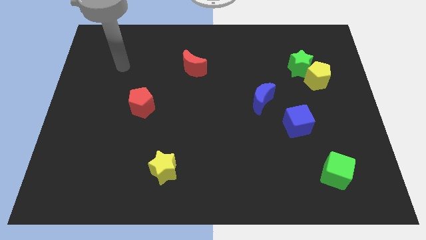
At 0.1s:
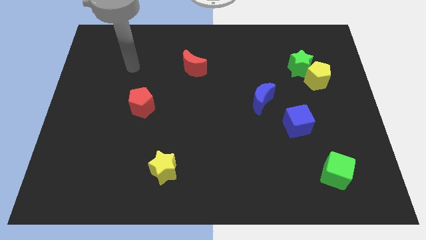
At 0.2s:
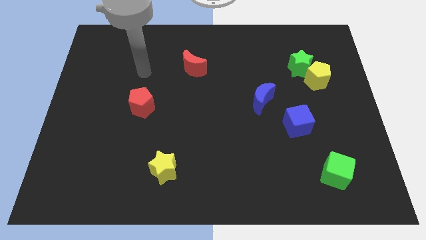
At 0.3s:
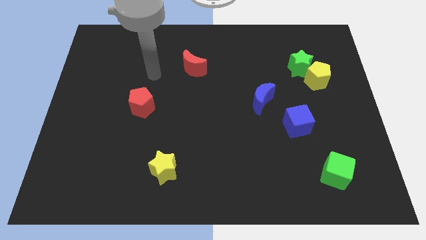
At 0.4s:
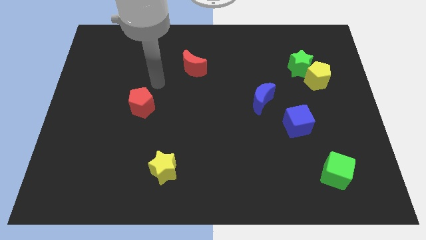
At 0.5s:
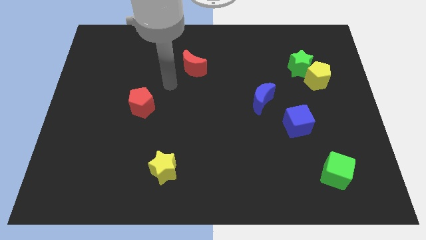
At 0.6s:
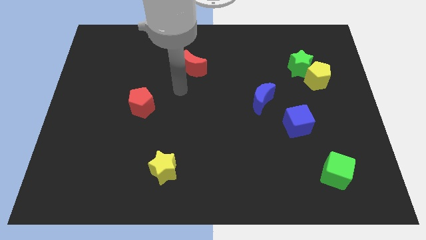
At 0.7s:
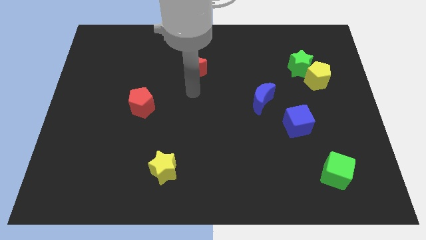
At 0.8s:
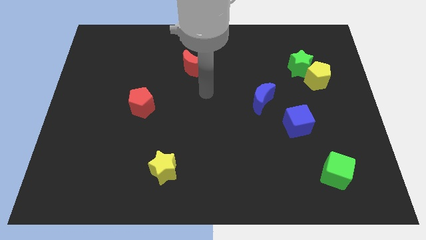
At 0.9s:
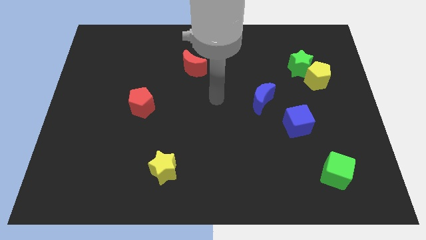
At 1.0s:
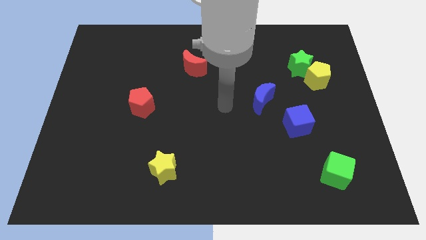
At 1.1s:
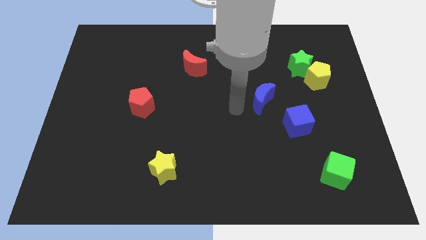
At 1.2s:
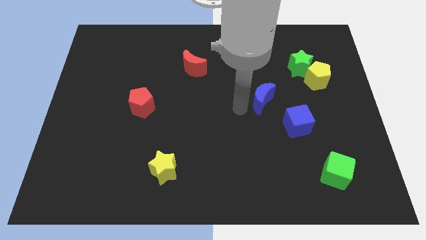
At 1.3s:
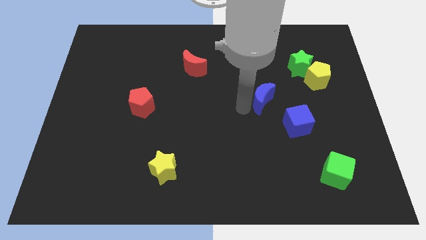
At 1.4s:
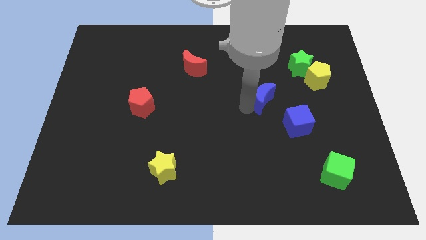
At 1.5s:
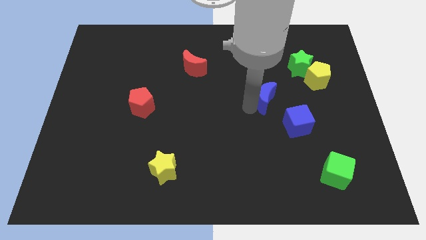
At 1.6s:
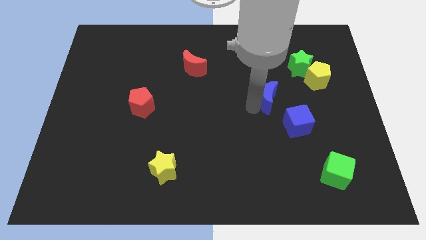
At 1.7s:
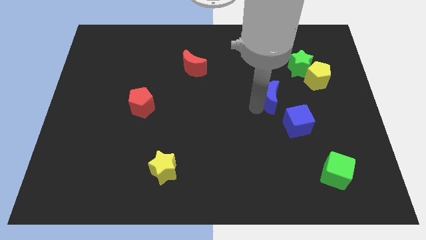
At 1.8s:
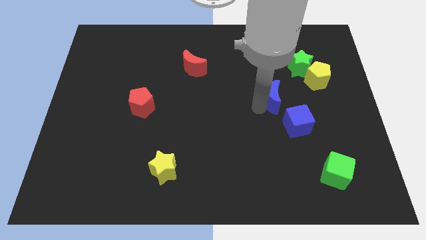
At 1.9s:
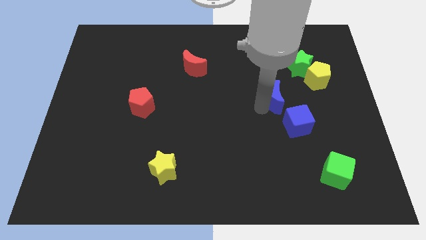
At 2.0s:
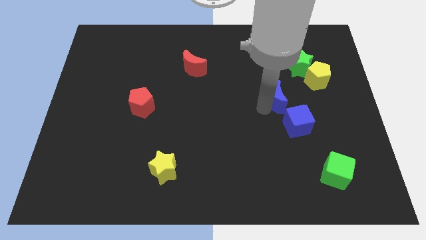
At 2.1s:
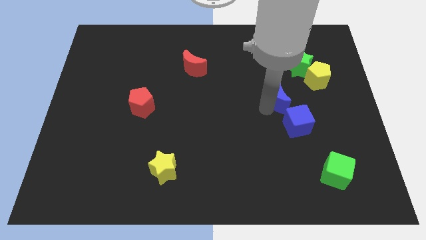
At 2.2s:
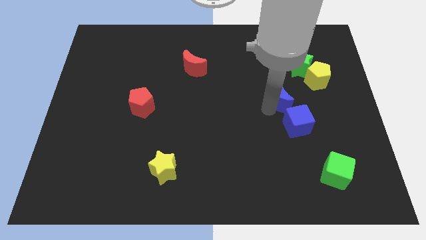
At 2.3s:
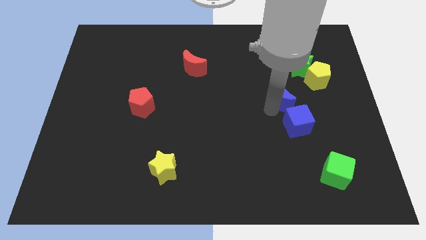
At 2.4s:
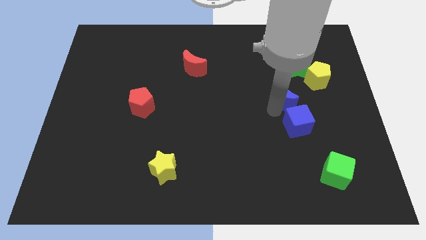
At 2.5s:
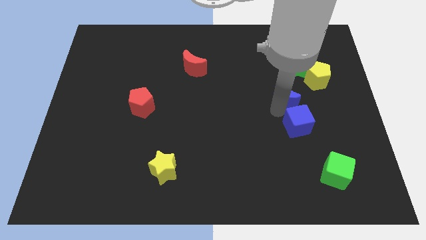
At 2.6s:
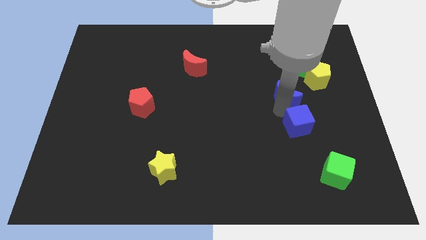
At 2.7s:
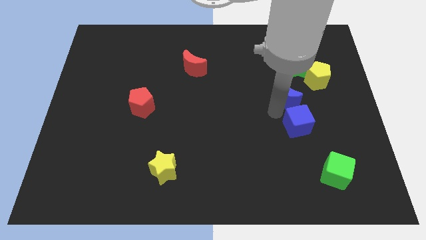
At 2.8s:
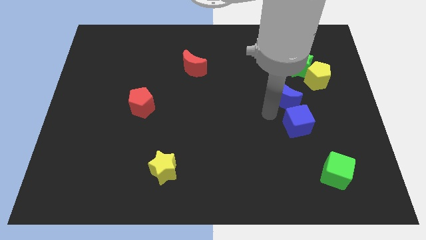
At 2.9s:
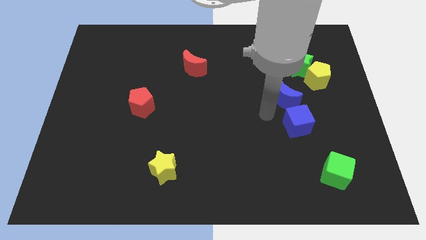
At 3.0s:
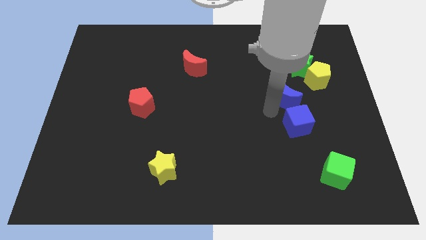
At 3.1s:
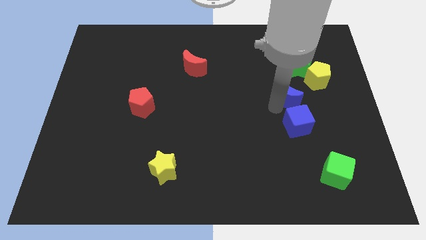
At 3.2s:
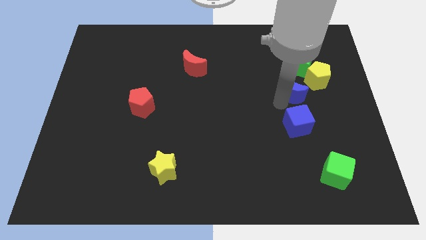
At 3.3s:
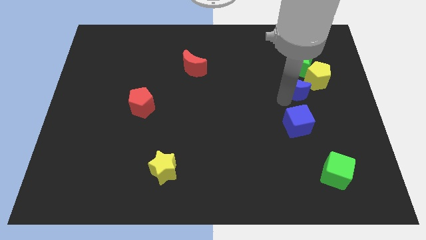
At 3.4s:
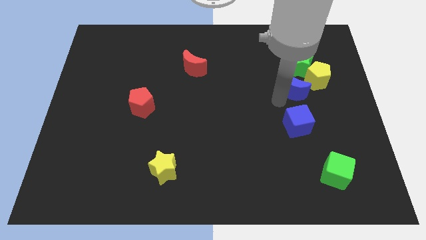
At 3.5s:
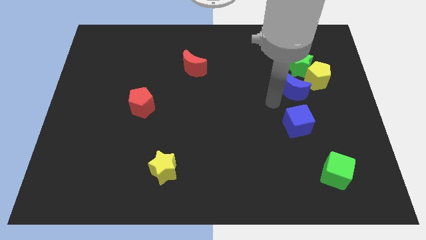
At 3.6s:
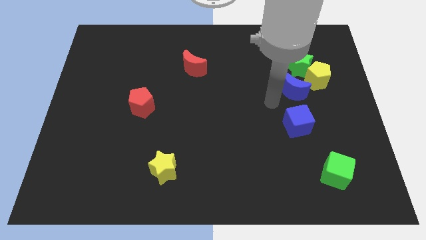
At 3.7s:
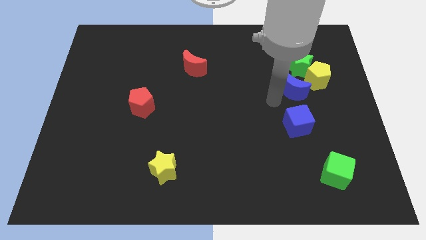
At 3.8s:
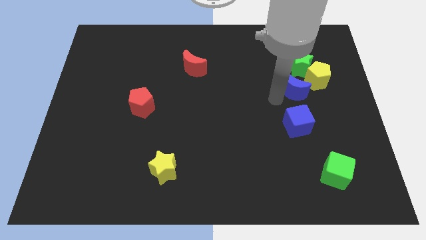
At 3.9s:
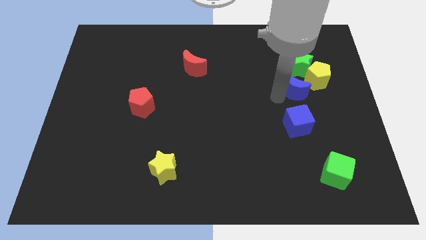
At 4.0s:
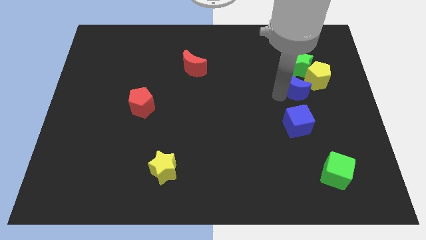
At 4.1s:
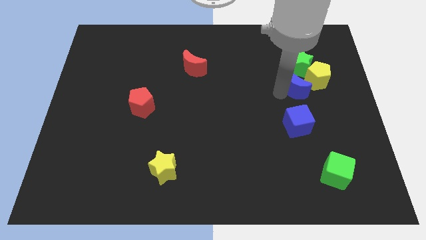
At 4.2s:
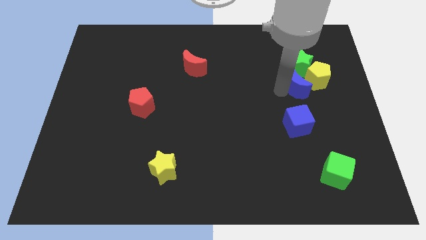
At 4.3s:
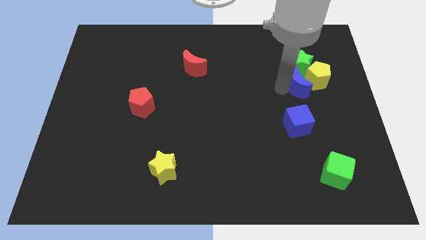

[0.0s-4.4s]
push the blue moon next to the yellow pentagon

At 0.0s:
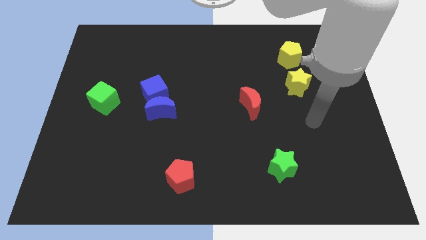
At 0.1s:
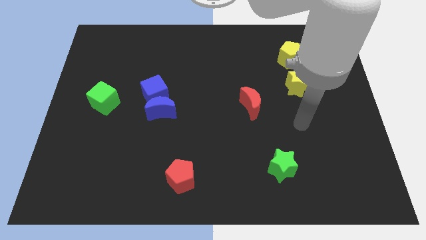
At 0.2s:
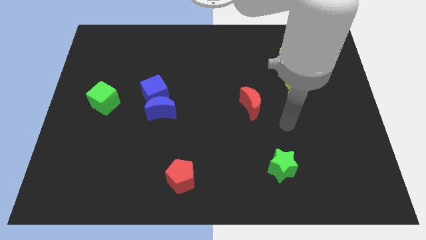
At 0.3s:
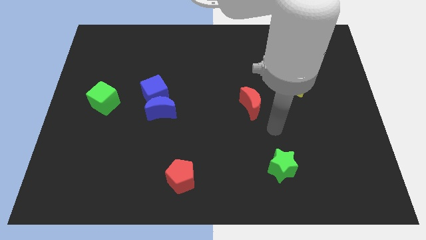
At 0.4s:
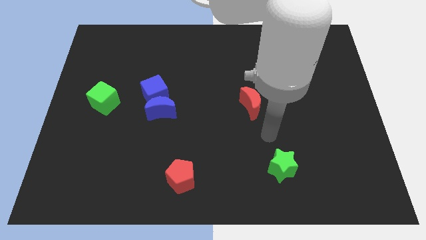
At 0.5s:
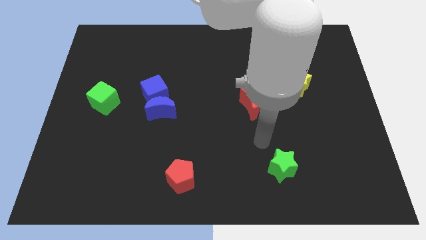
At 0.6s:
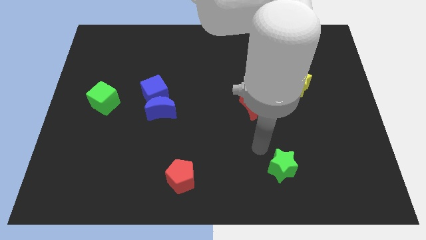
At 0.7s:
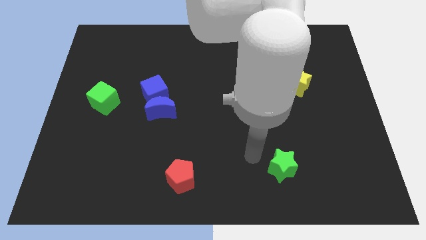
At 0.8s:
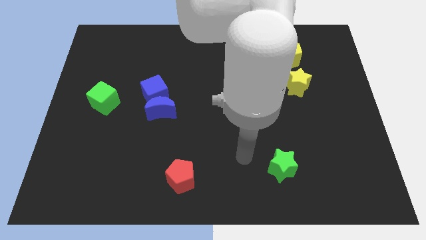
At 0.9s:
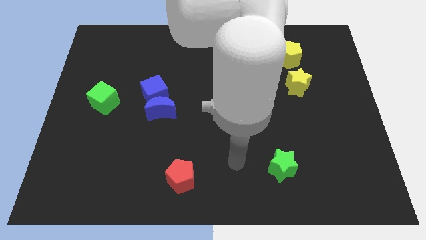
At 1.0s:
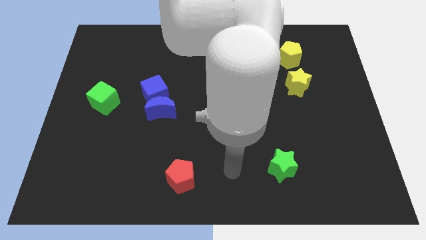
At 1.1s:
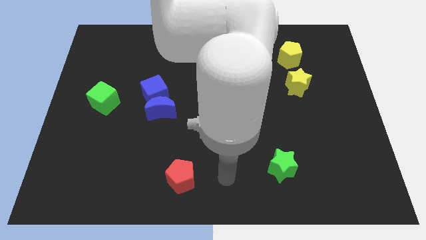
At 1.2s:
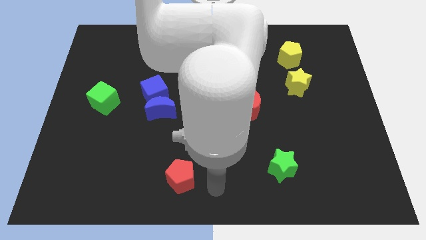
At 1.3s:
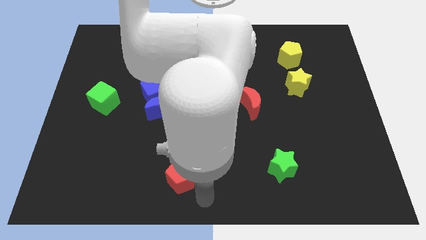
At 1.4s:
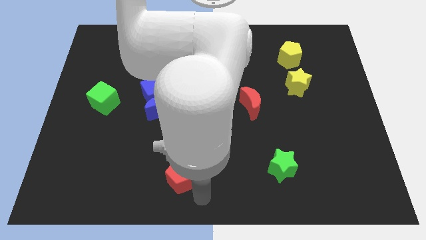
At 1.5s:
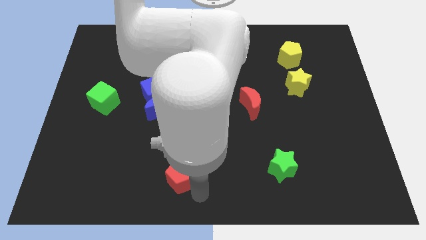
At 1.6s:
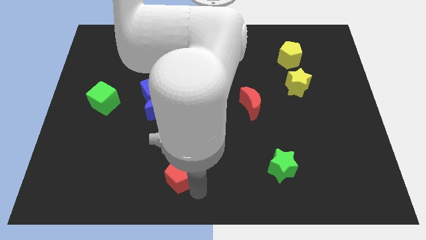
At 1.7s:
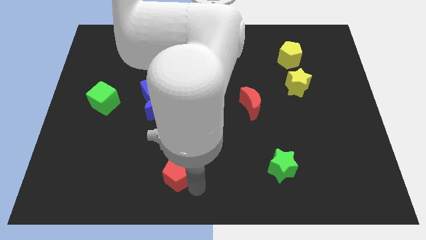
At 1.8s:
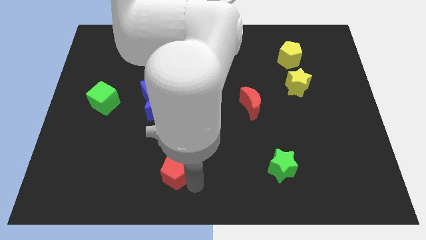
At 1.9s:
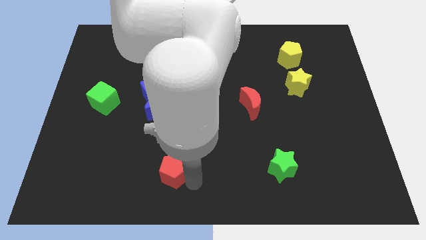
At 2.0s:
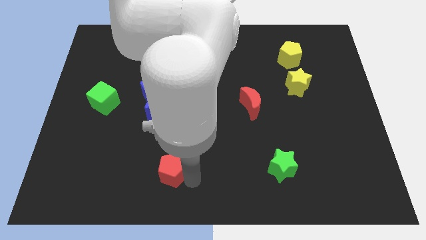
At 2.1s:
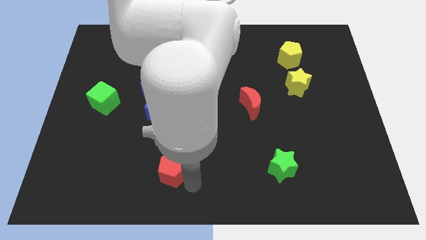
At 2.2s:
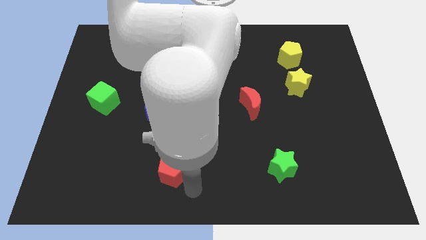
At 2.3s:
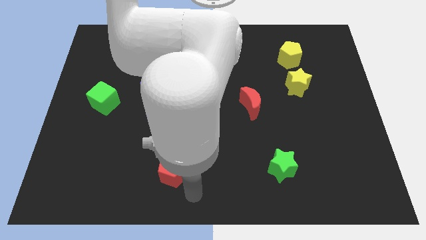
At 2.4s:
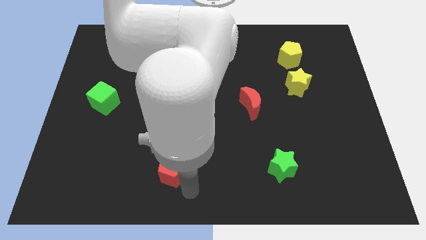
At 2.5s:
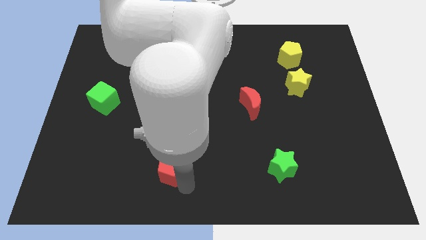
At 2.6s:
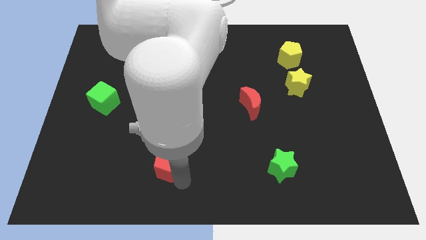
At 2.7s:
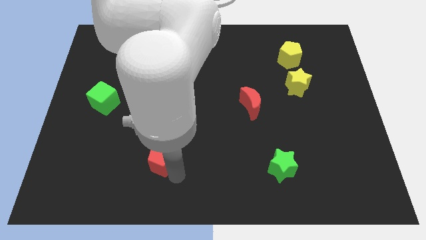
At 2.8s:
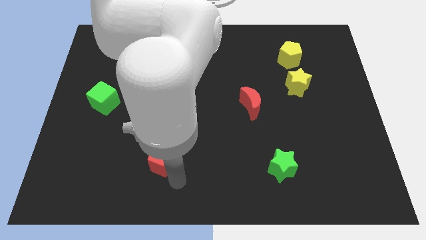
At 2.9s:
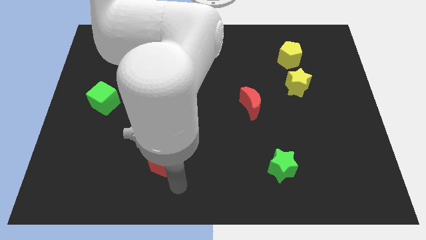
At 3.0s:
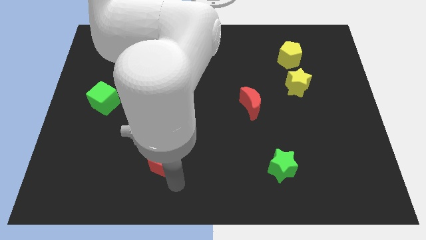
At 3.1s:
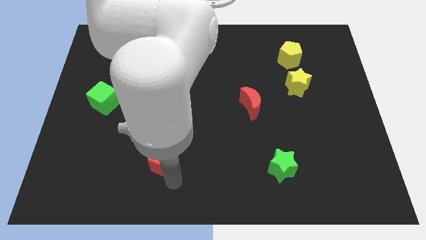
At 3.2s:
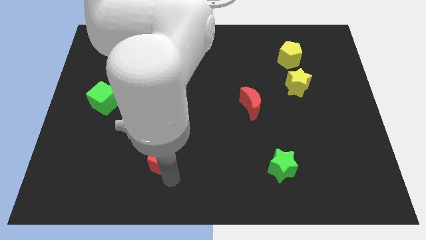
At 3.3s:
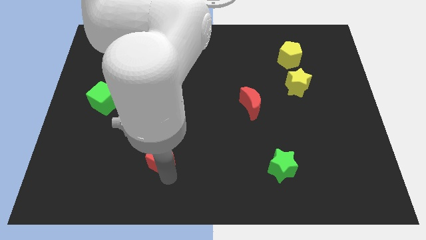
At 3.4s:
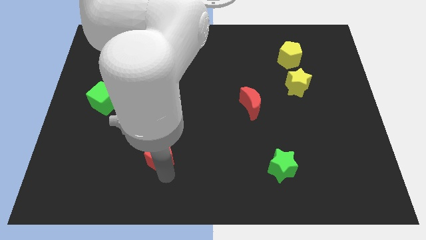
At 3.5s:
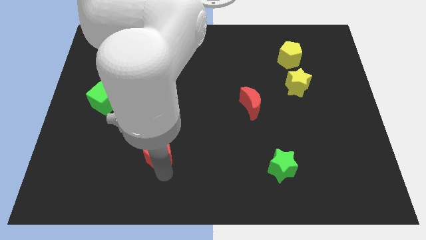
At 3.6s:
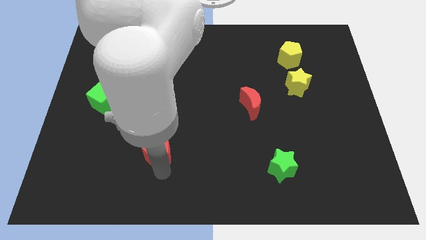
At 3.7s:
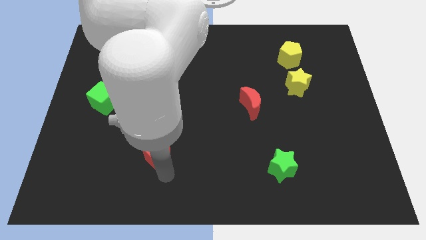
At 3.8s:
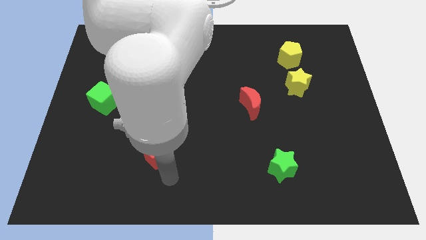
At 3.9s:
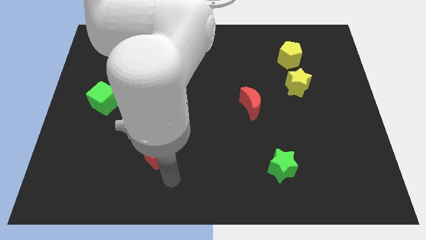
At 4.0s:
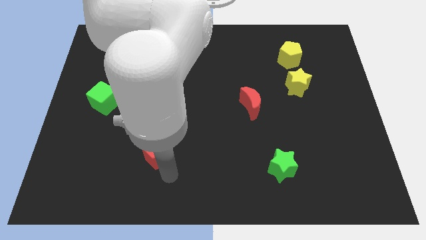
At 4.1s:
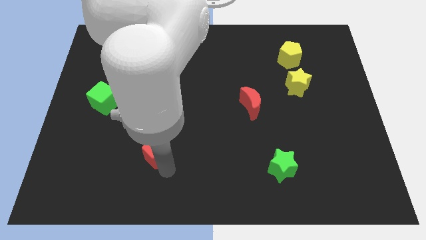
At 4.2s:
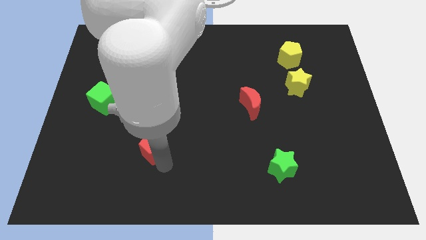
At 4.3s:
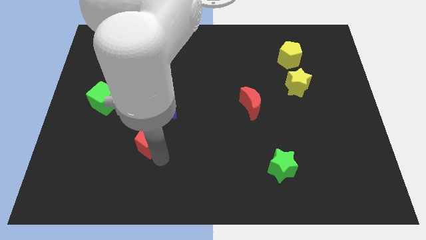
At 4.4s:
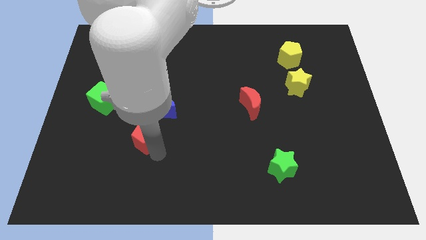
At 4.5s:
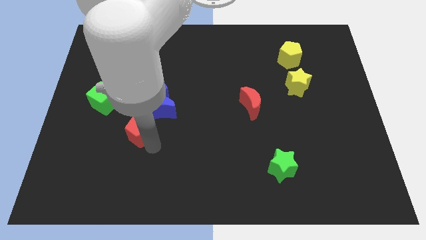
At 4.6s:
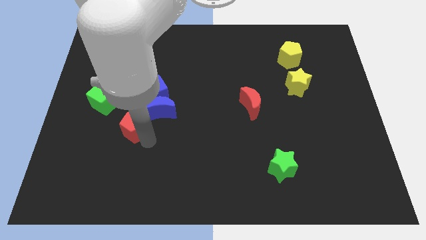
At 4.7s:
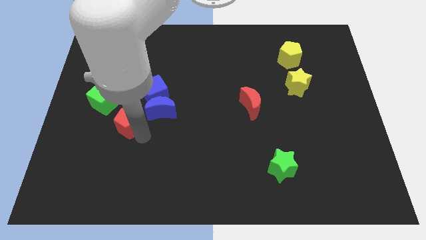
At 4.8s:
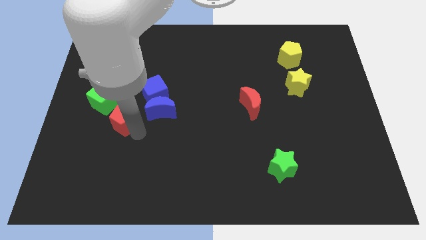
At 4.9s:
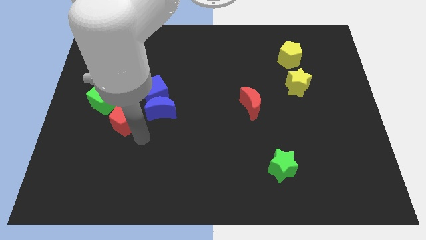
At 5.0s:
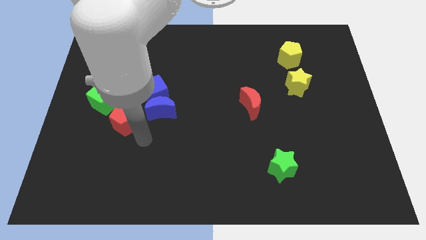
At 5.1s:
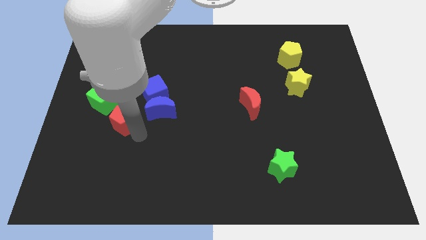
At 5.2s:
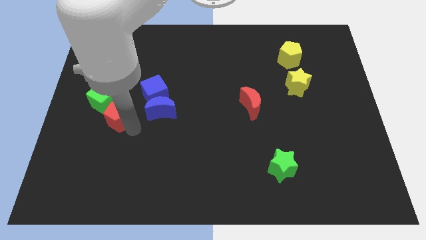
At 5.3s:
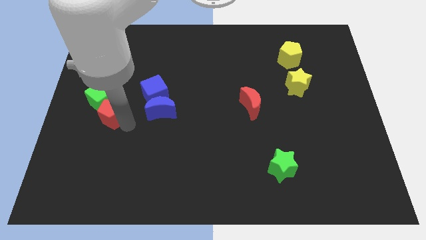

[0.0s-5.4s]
put the red pentagon next to the green cube
